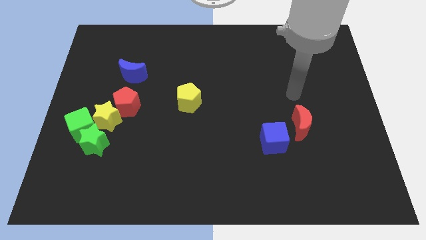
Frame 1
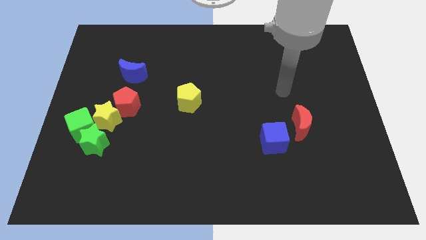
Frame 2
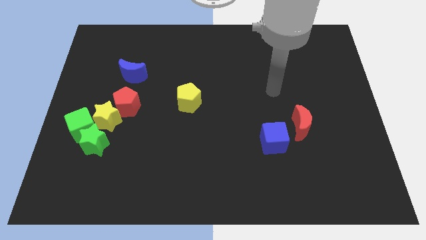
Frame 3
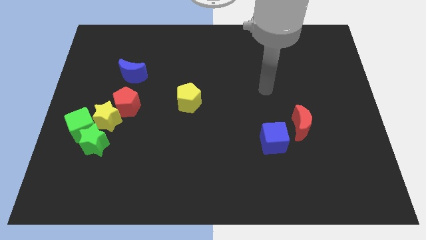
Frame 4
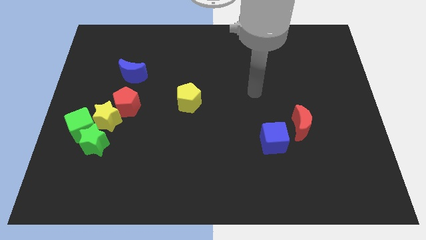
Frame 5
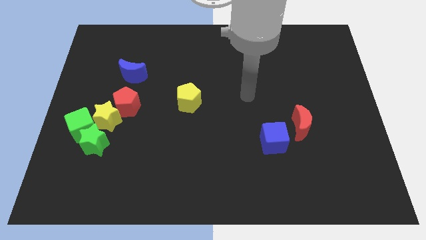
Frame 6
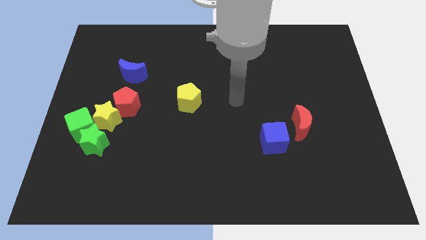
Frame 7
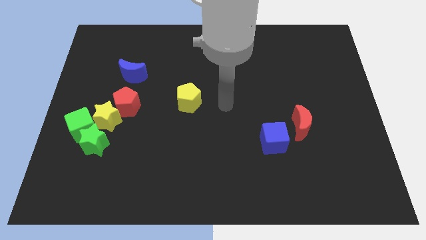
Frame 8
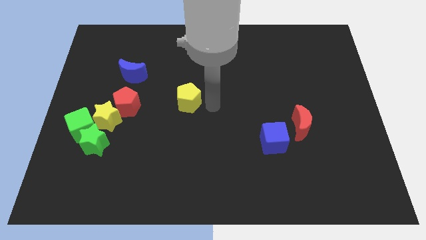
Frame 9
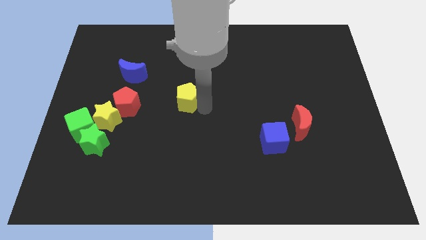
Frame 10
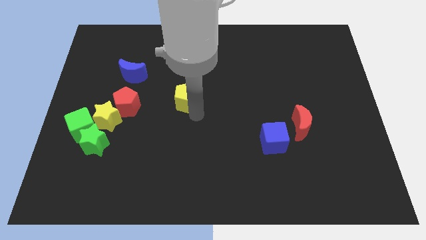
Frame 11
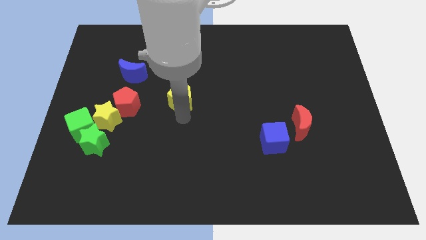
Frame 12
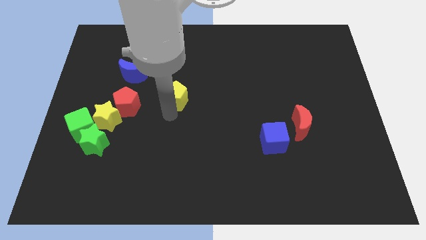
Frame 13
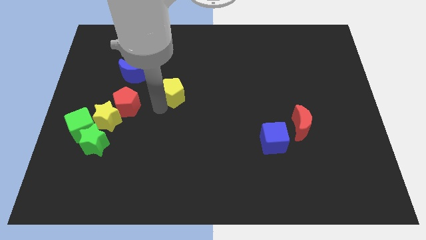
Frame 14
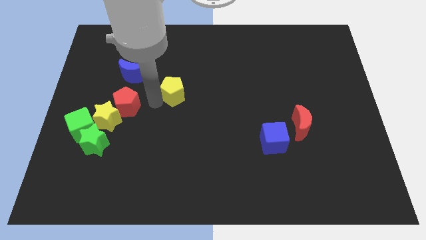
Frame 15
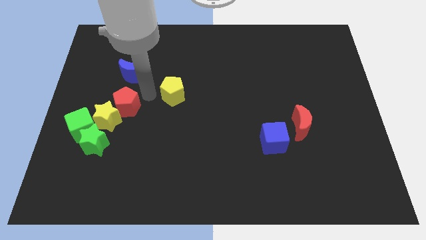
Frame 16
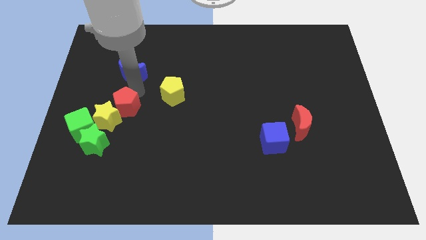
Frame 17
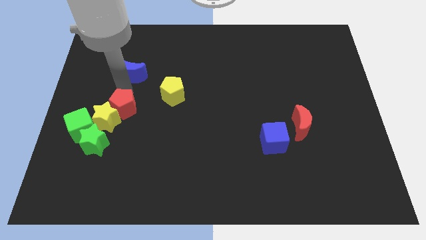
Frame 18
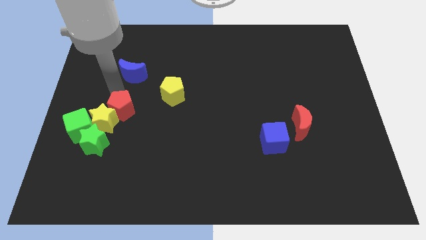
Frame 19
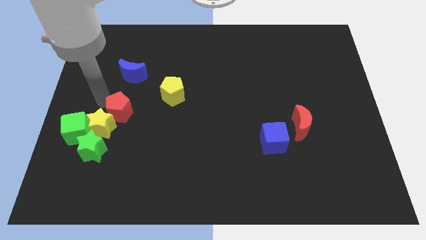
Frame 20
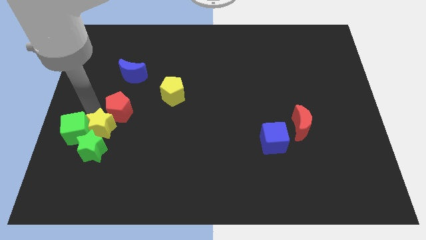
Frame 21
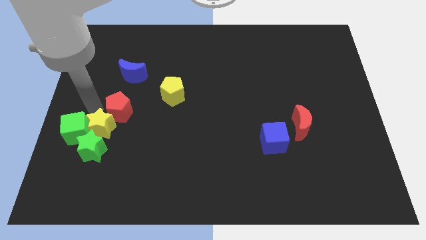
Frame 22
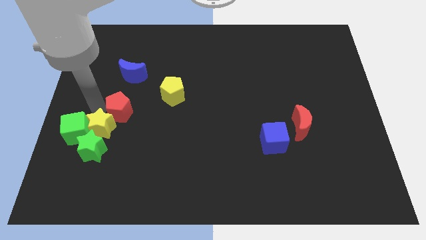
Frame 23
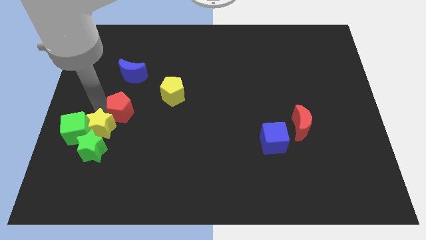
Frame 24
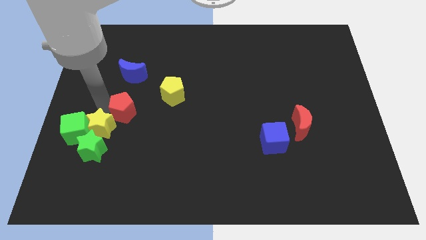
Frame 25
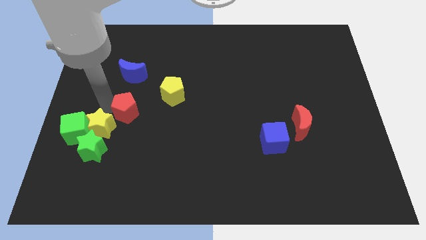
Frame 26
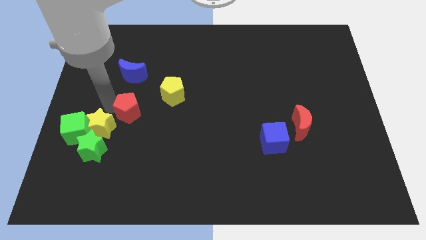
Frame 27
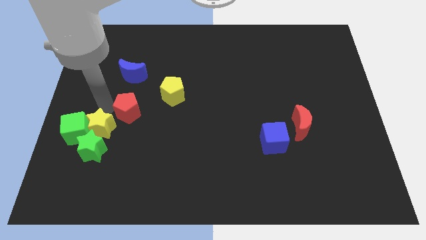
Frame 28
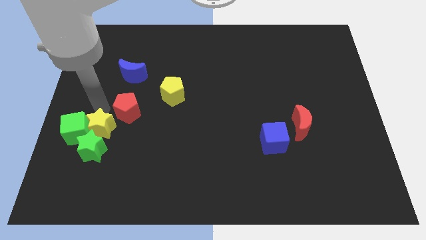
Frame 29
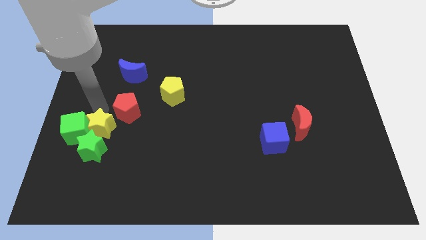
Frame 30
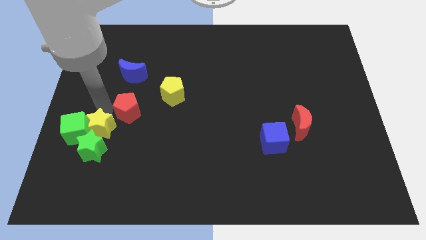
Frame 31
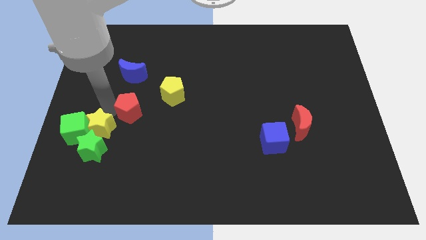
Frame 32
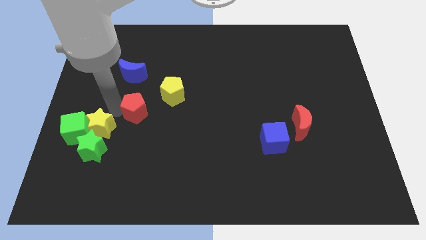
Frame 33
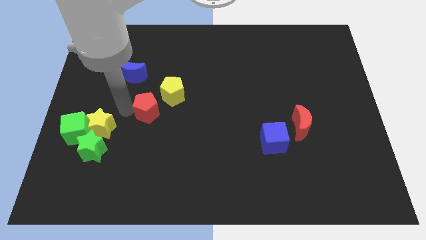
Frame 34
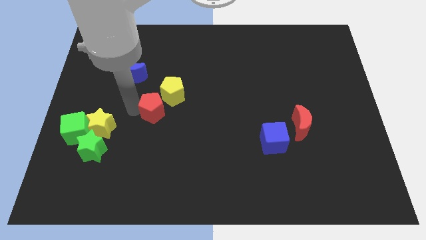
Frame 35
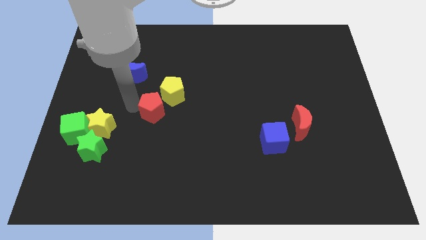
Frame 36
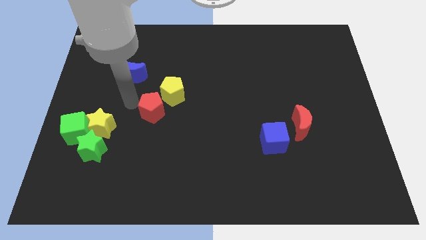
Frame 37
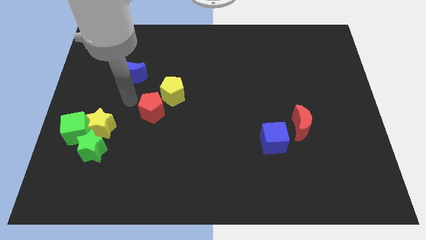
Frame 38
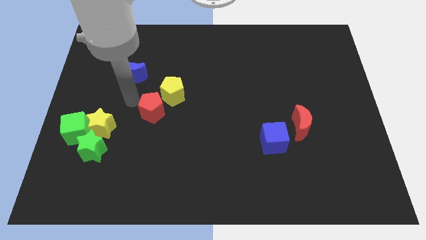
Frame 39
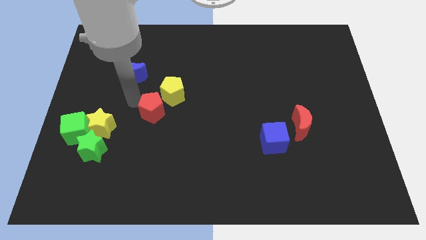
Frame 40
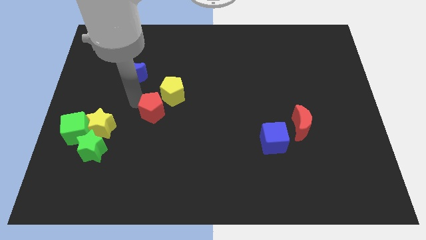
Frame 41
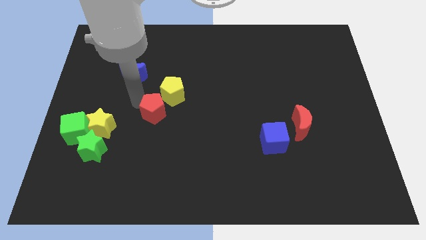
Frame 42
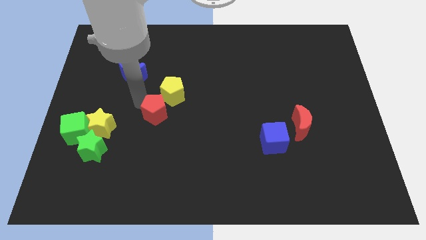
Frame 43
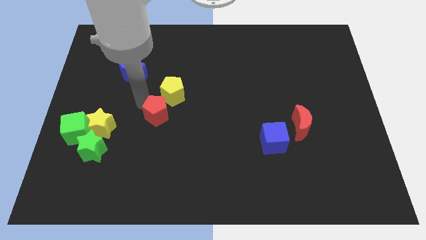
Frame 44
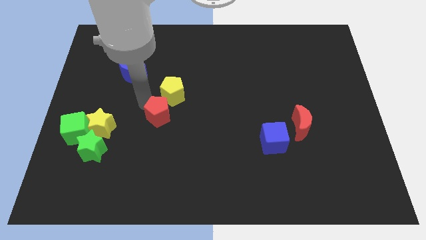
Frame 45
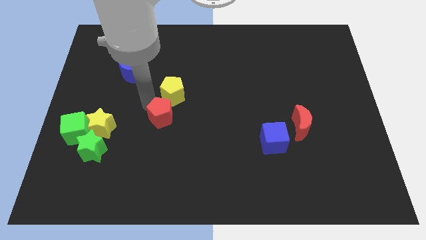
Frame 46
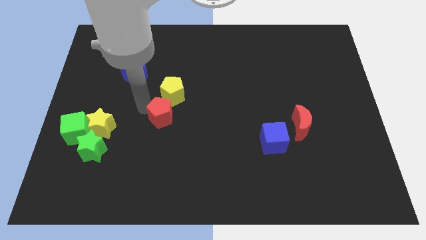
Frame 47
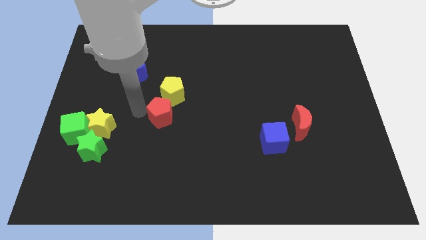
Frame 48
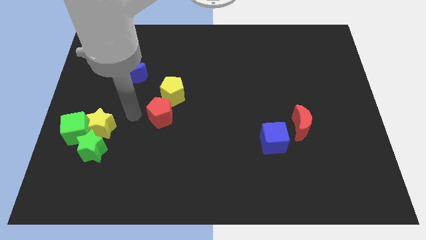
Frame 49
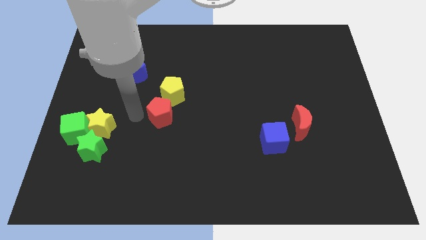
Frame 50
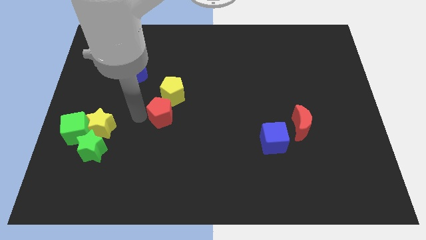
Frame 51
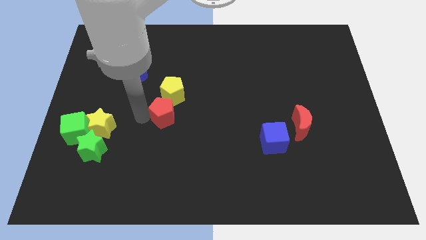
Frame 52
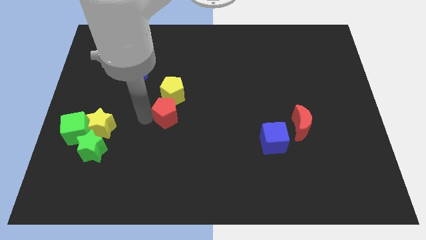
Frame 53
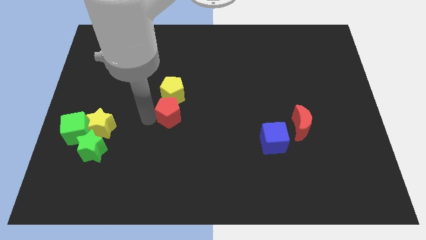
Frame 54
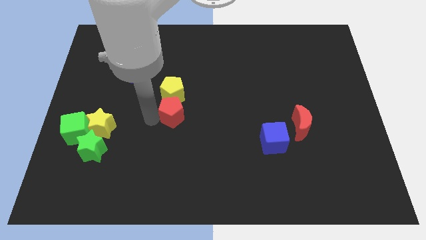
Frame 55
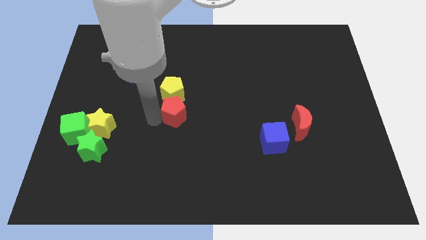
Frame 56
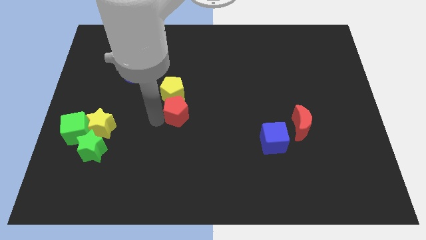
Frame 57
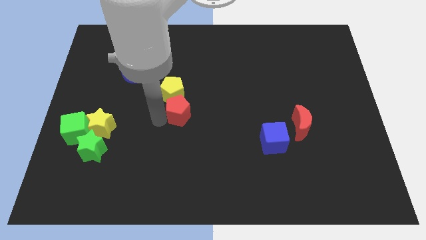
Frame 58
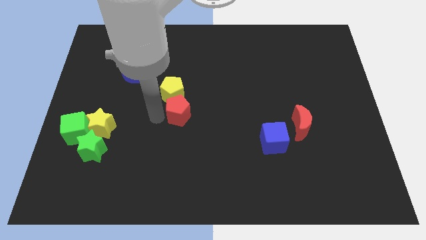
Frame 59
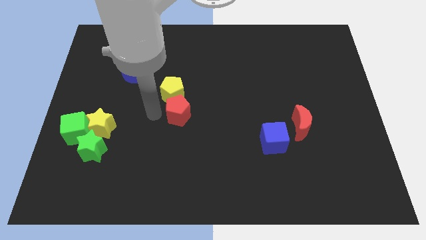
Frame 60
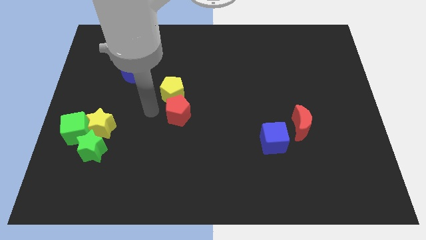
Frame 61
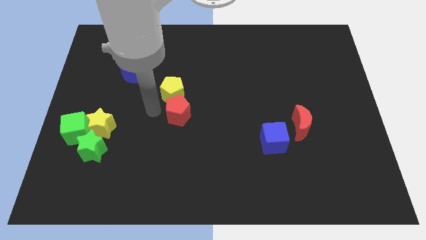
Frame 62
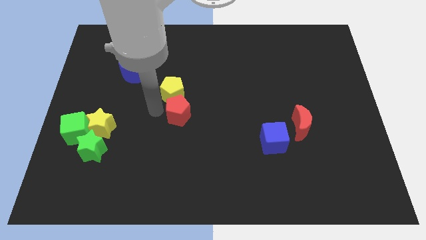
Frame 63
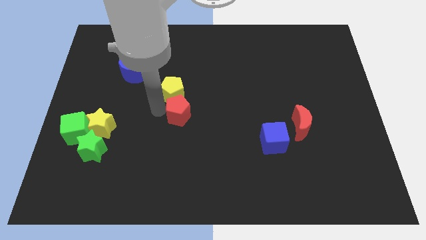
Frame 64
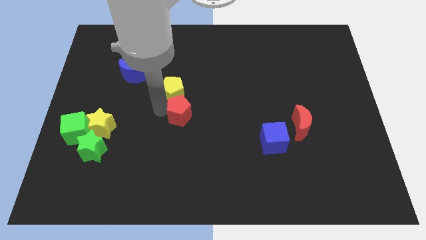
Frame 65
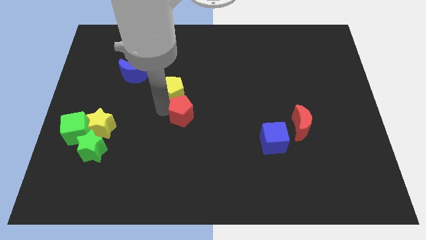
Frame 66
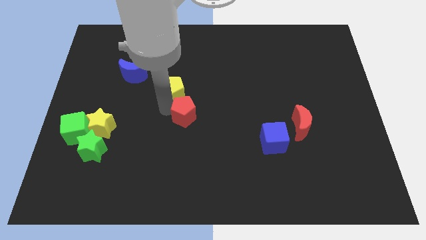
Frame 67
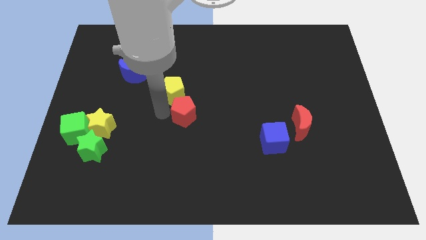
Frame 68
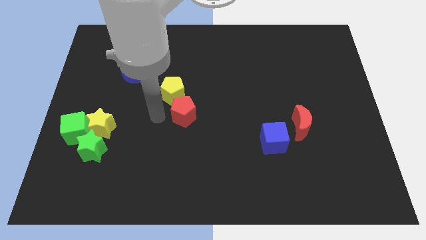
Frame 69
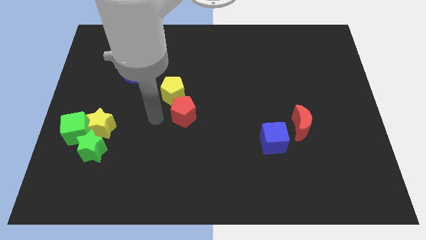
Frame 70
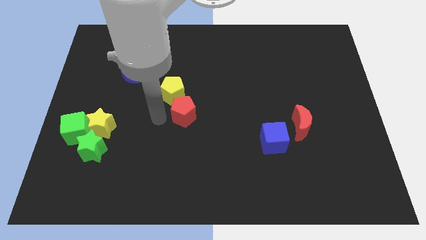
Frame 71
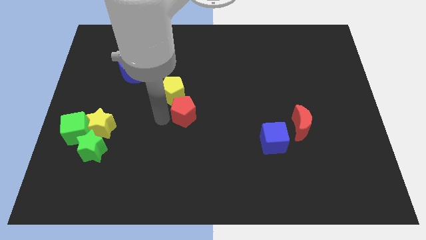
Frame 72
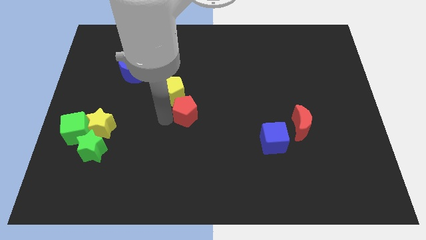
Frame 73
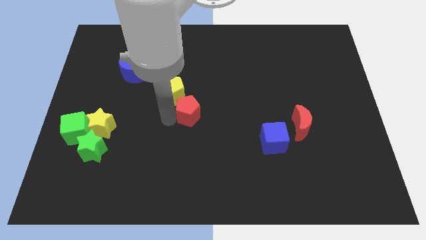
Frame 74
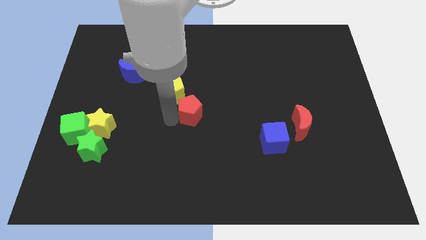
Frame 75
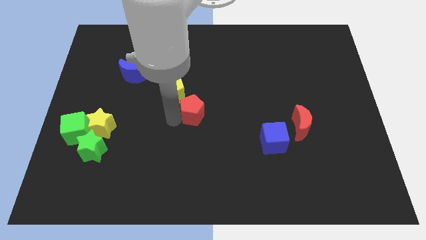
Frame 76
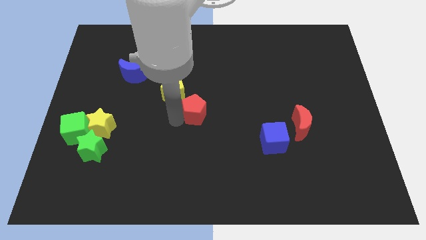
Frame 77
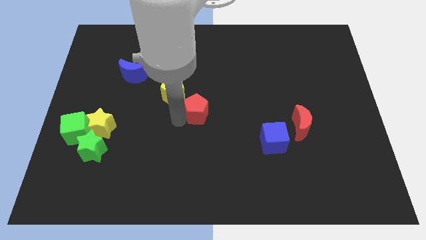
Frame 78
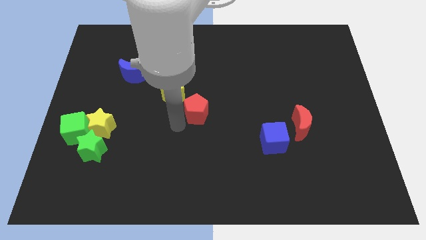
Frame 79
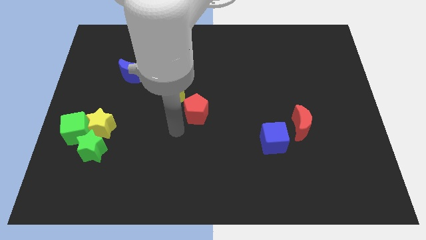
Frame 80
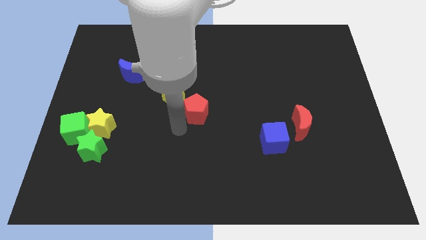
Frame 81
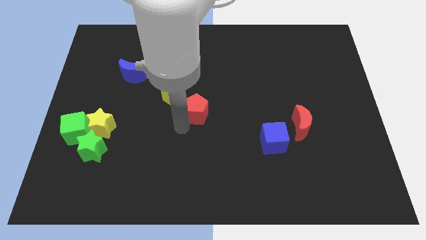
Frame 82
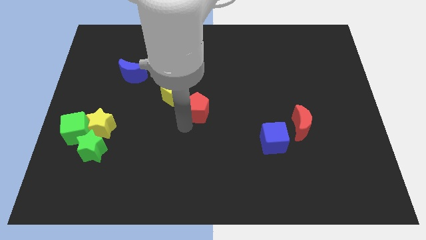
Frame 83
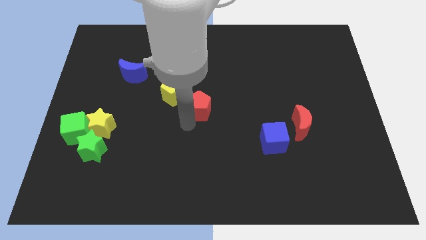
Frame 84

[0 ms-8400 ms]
push the red pentagon to the right of the yellow pentagon
